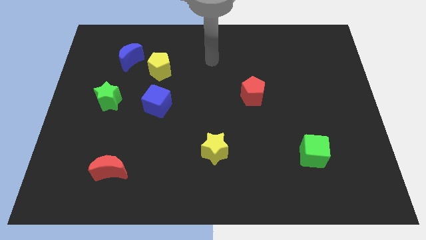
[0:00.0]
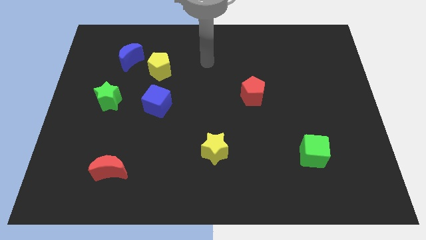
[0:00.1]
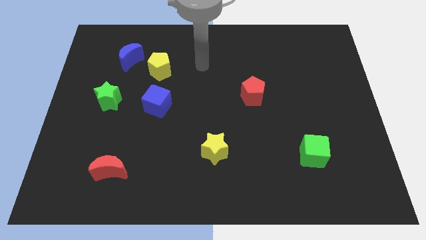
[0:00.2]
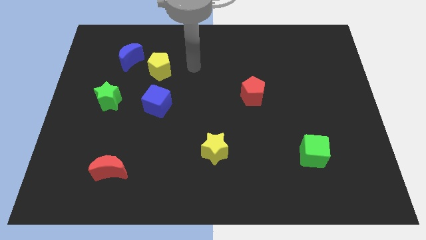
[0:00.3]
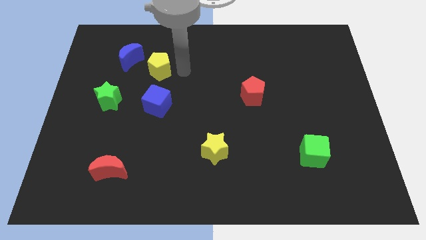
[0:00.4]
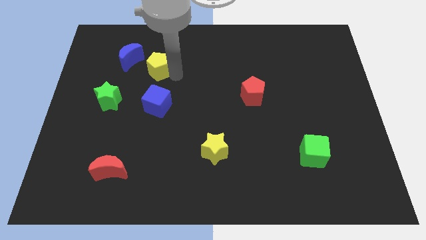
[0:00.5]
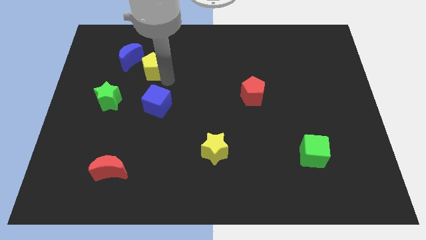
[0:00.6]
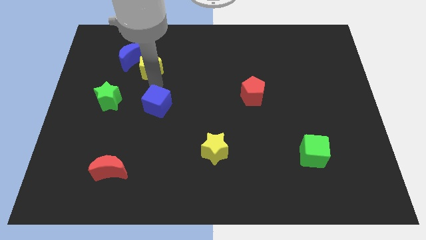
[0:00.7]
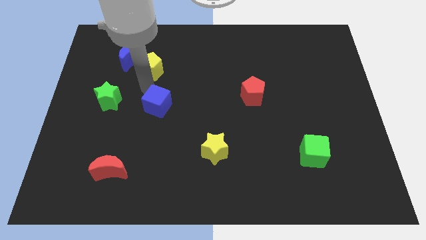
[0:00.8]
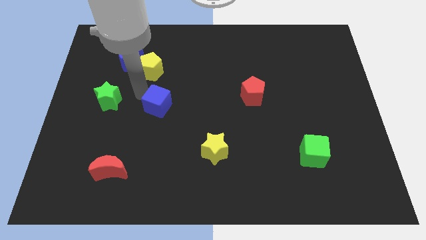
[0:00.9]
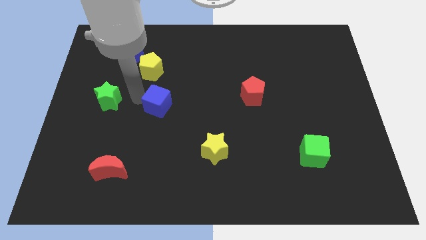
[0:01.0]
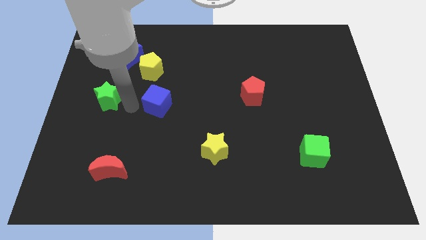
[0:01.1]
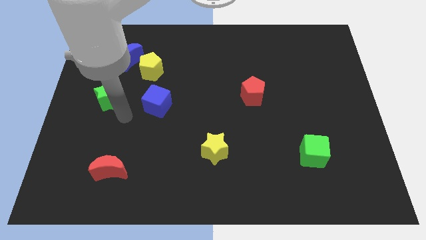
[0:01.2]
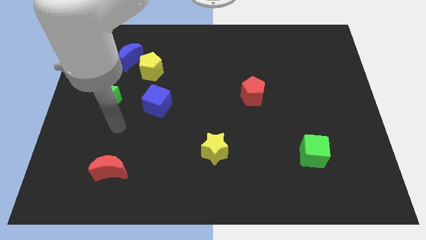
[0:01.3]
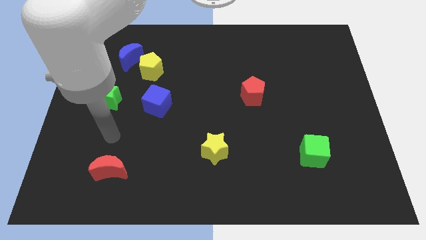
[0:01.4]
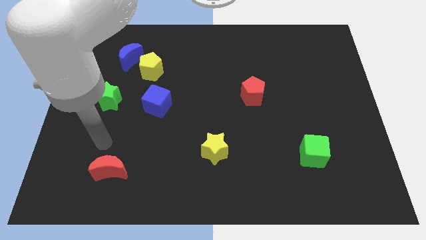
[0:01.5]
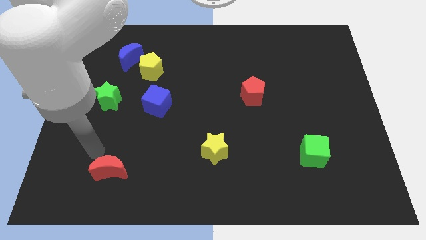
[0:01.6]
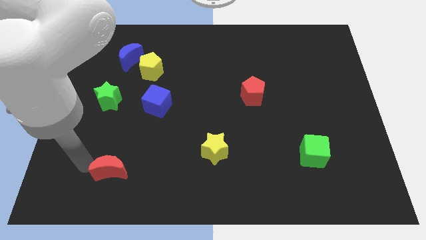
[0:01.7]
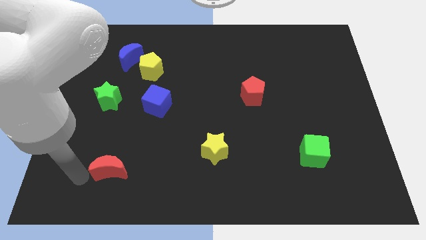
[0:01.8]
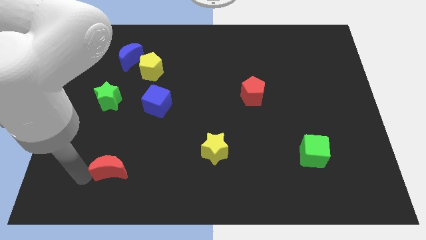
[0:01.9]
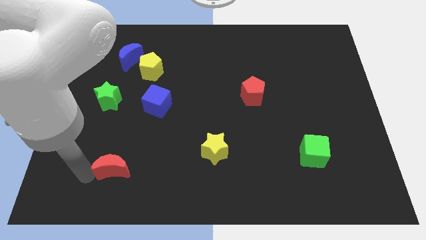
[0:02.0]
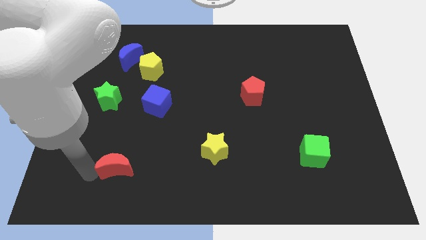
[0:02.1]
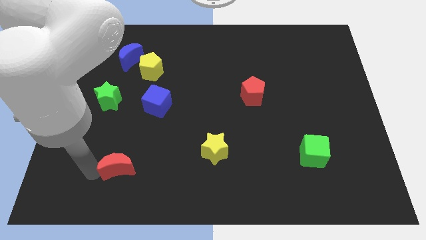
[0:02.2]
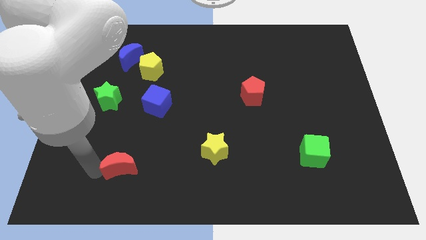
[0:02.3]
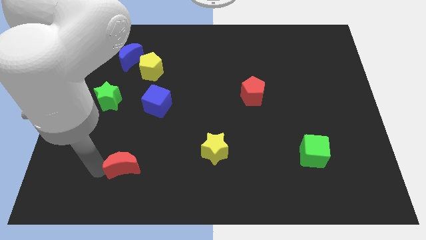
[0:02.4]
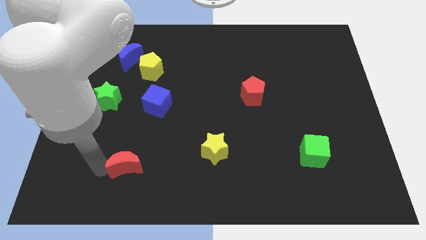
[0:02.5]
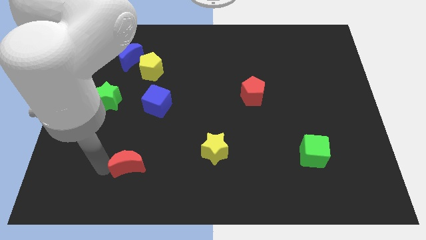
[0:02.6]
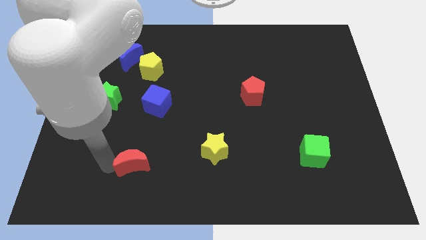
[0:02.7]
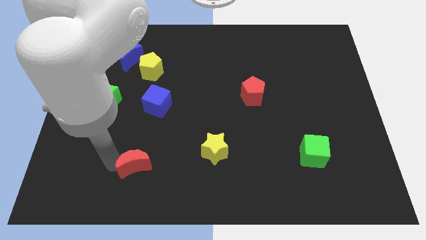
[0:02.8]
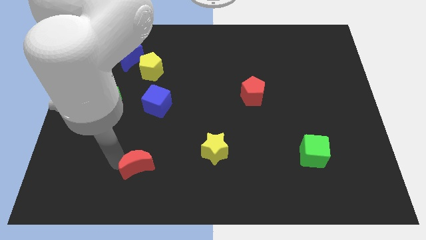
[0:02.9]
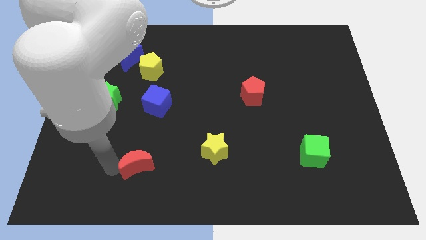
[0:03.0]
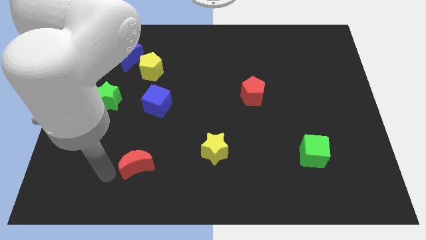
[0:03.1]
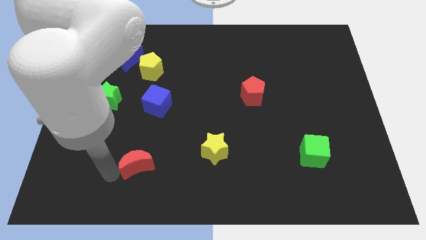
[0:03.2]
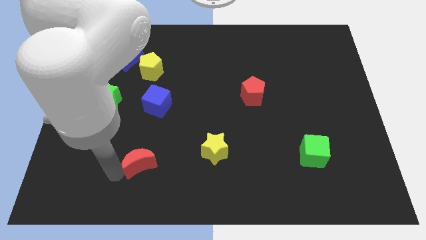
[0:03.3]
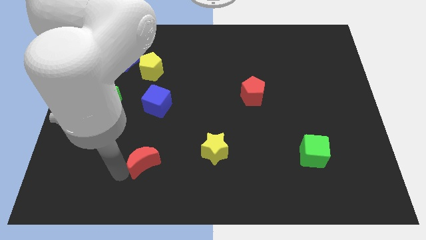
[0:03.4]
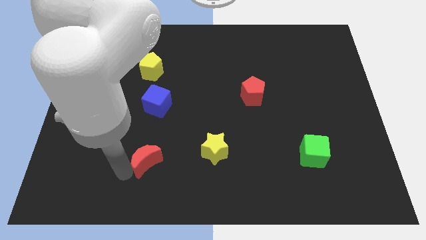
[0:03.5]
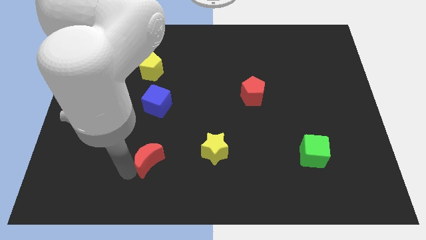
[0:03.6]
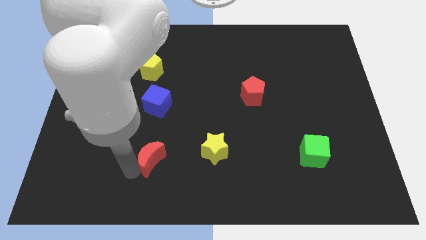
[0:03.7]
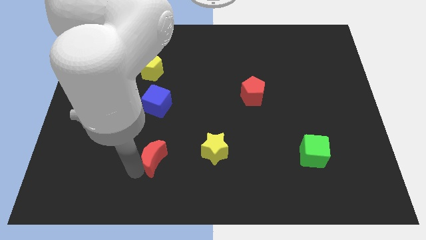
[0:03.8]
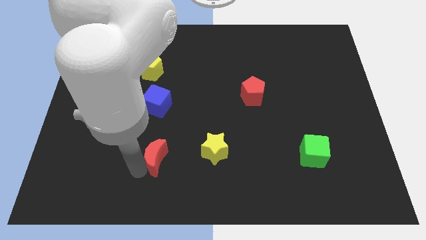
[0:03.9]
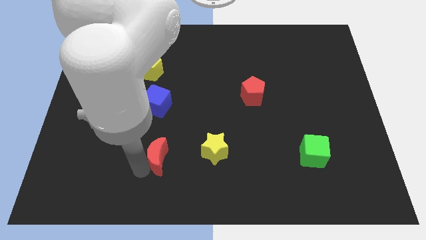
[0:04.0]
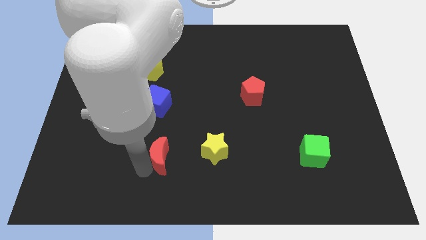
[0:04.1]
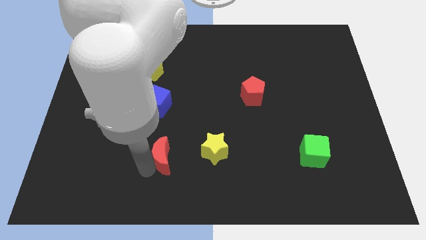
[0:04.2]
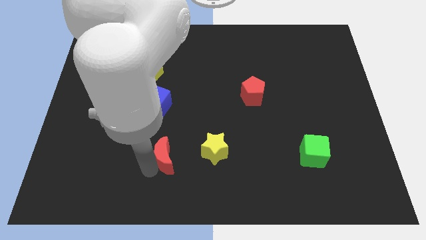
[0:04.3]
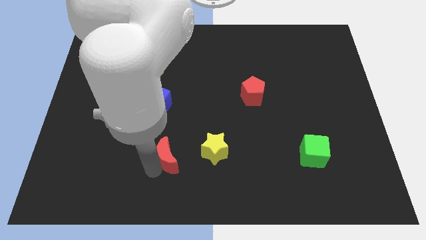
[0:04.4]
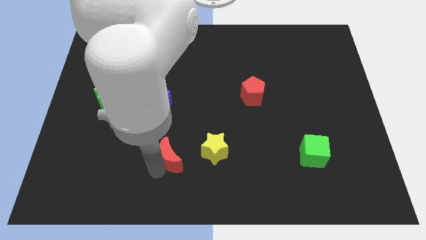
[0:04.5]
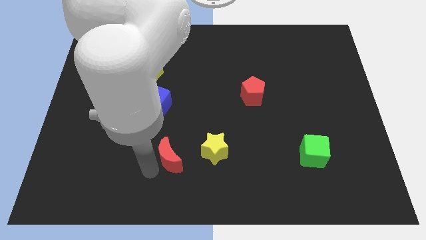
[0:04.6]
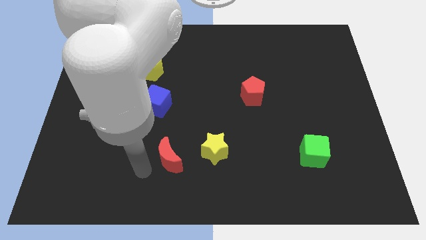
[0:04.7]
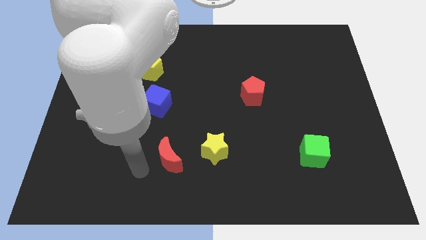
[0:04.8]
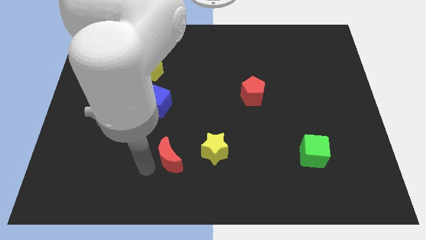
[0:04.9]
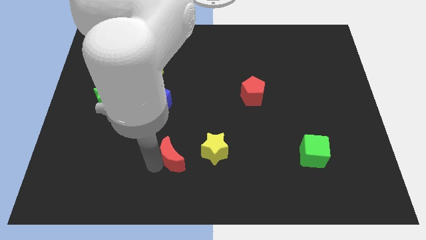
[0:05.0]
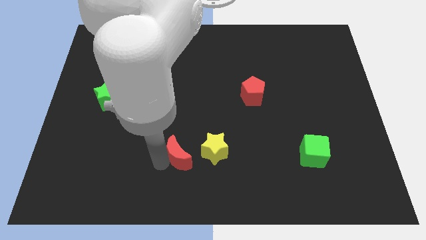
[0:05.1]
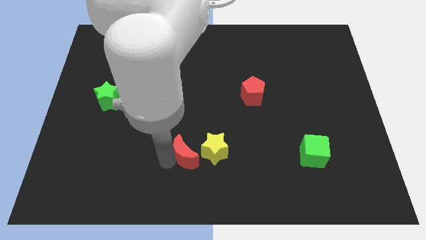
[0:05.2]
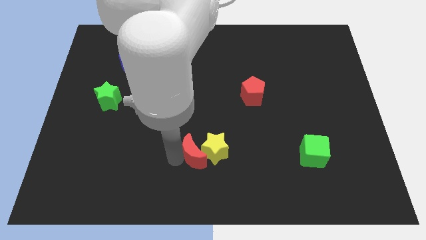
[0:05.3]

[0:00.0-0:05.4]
slide the red moon towards the yellow star
